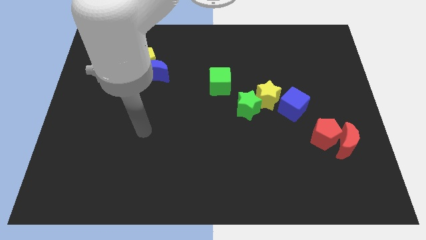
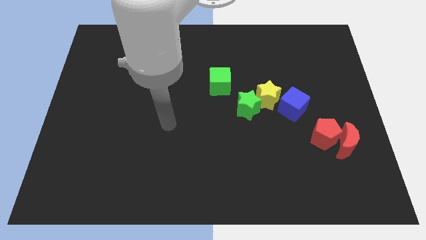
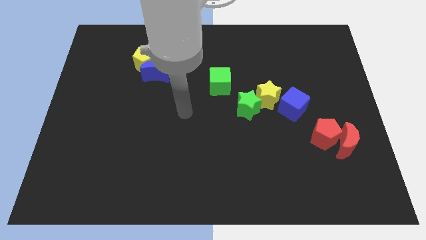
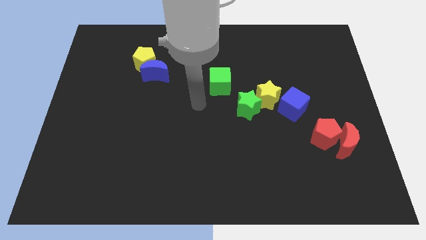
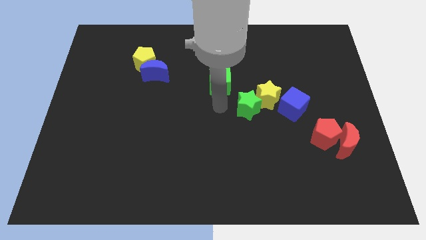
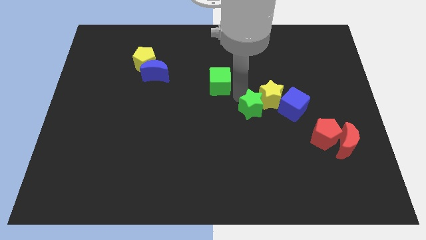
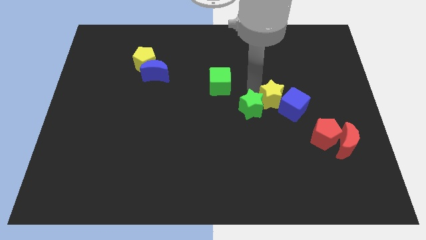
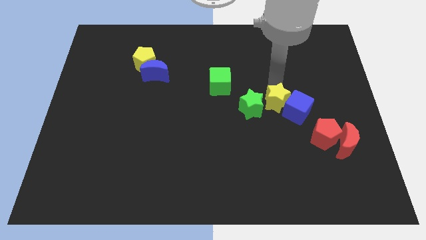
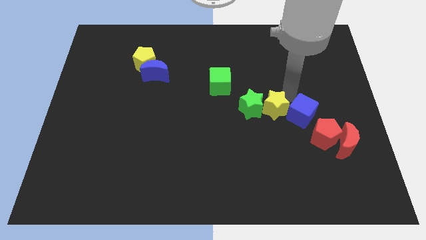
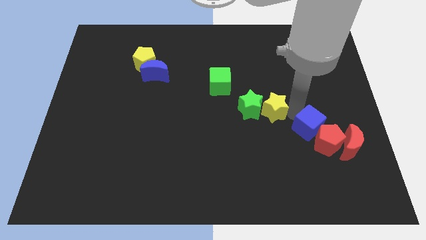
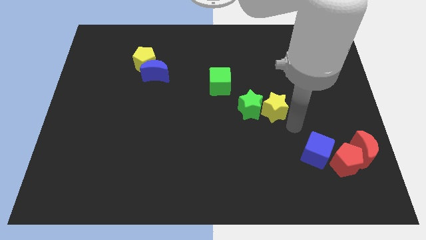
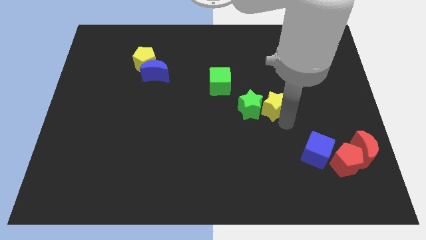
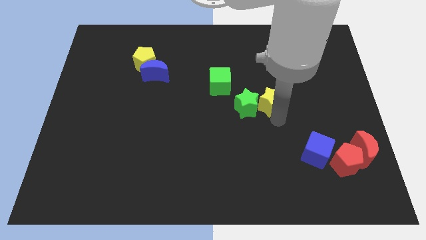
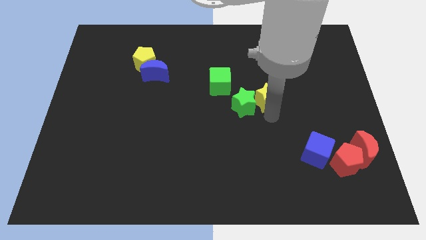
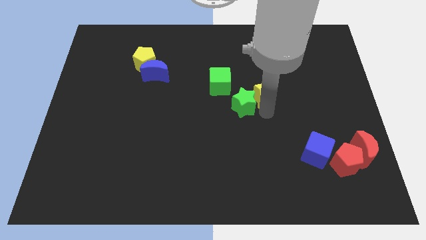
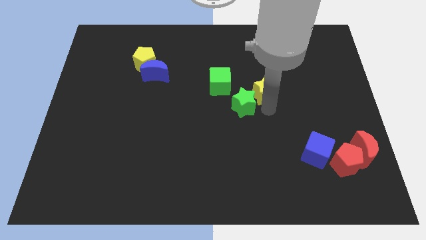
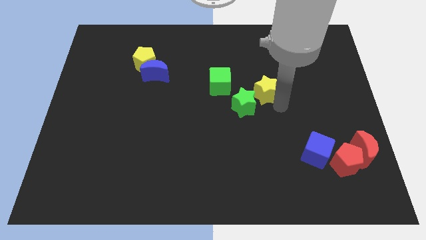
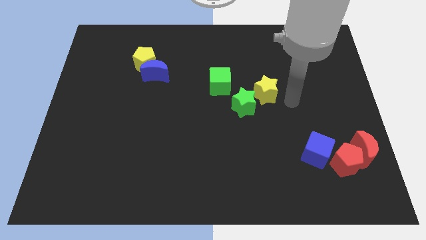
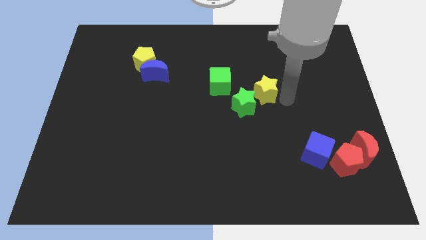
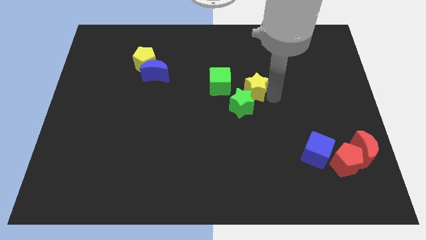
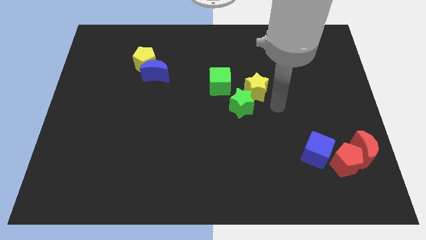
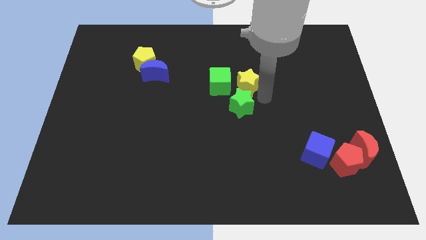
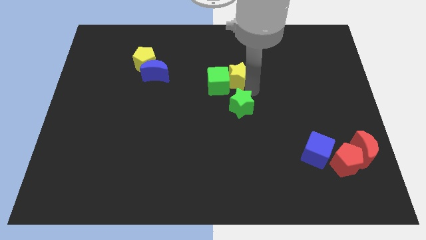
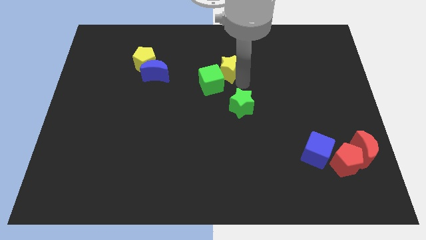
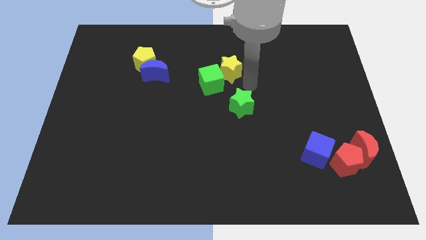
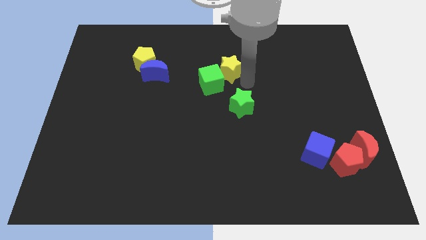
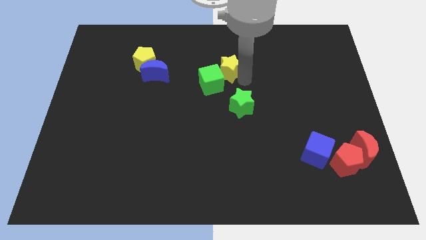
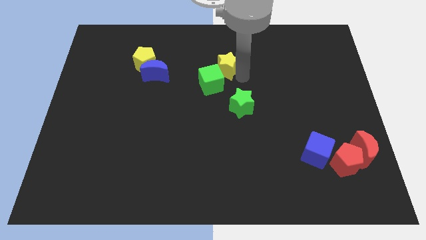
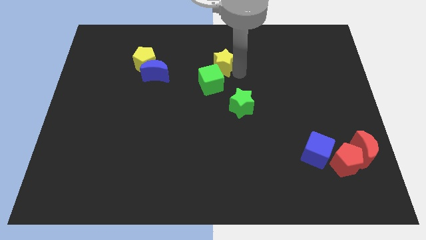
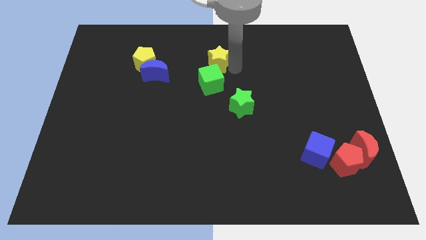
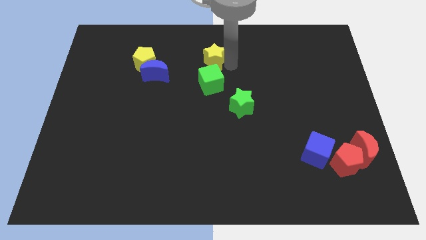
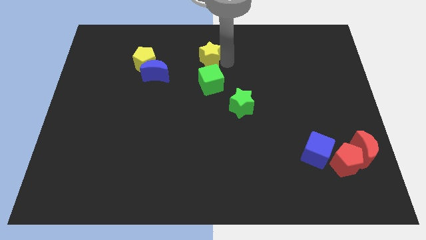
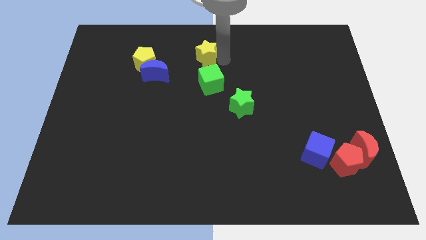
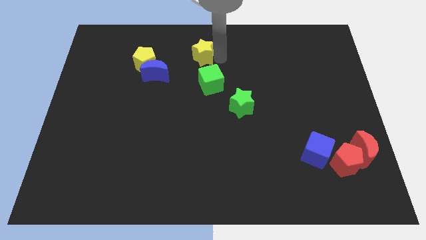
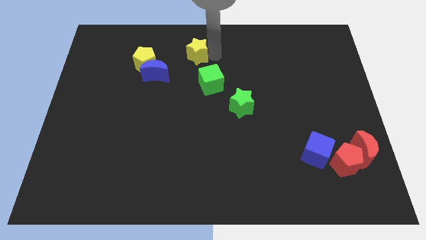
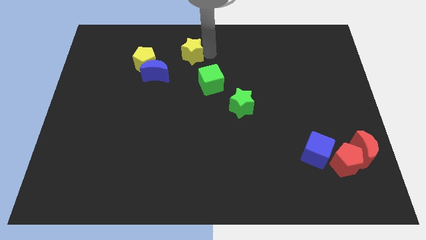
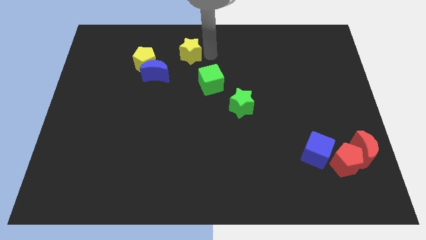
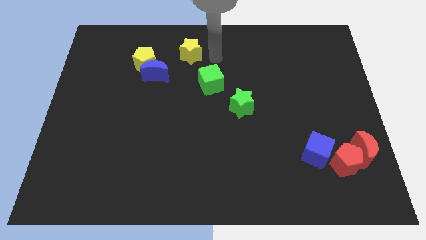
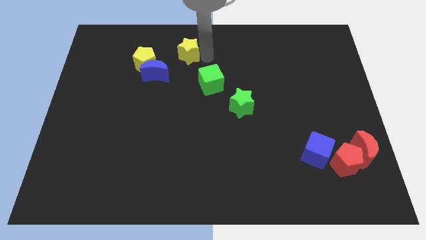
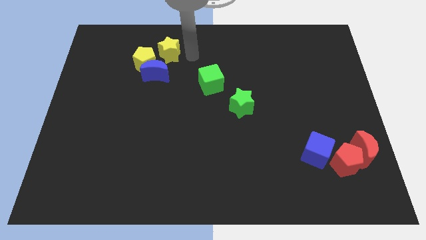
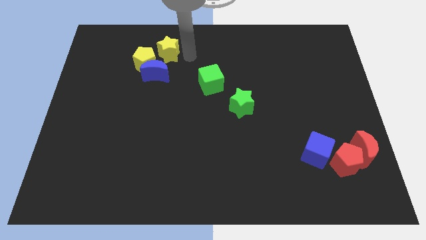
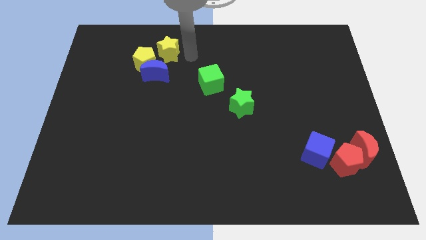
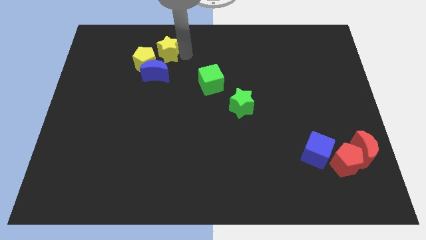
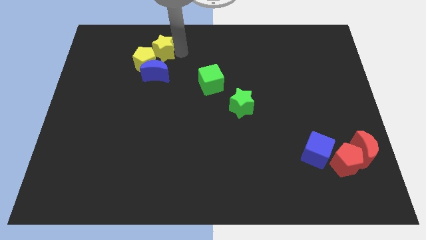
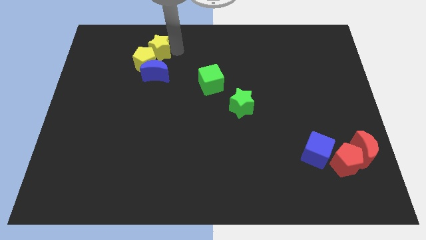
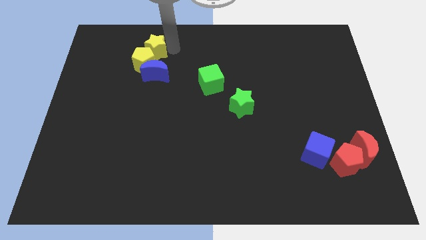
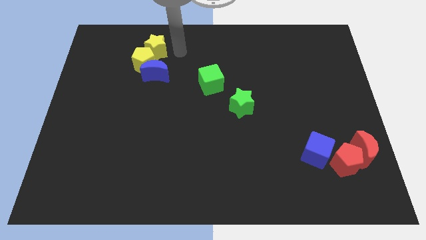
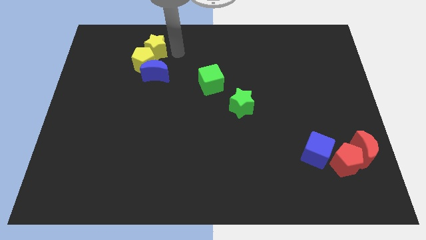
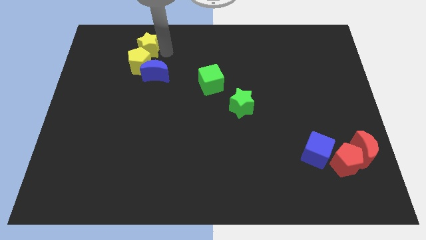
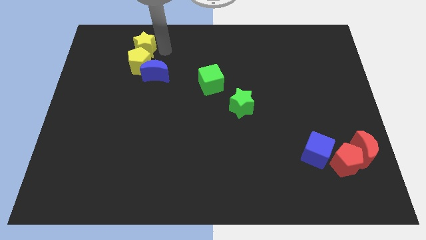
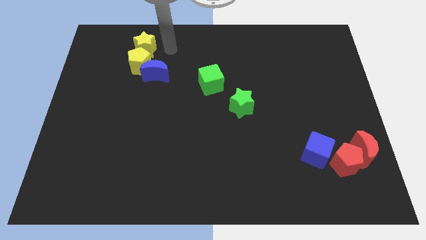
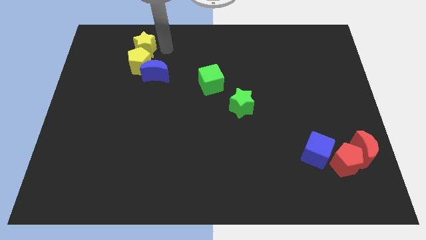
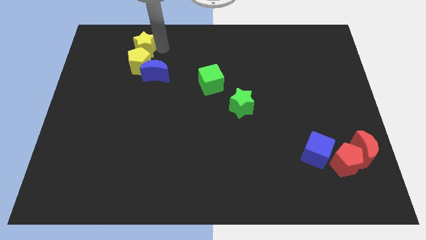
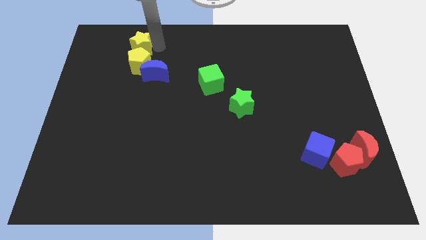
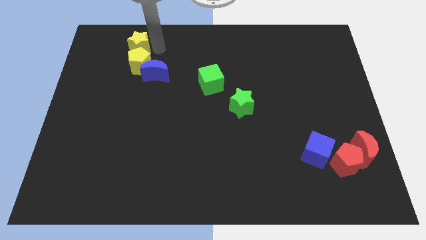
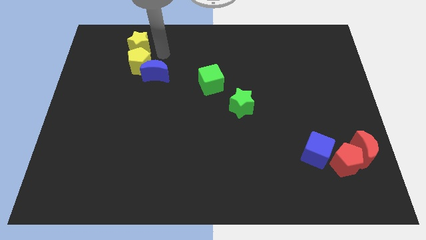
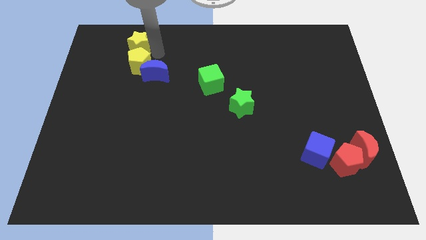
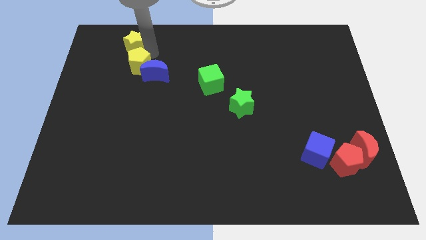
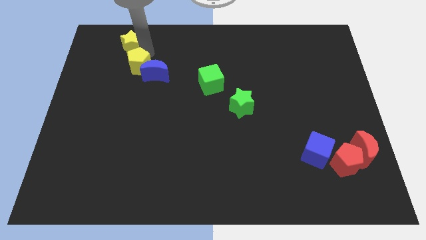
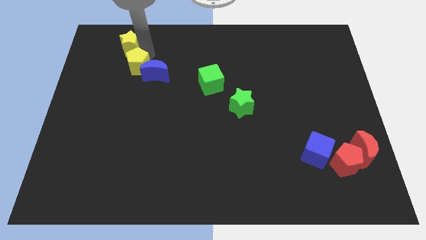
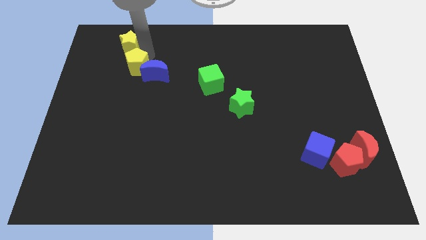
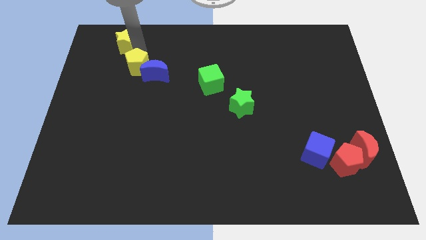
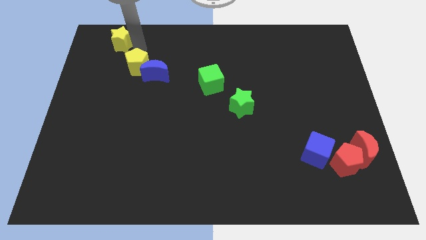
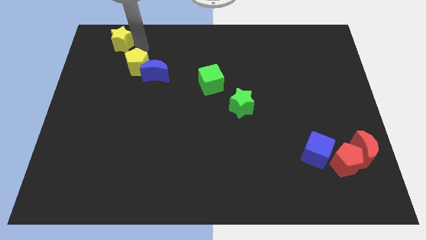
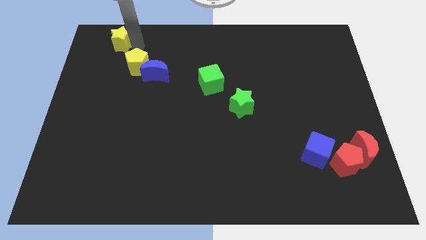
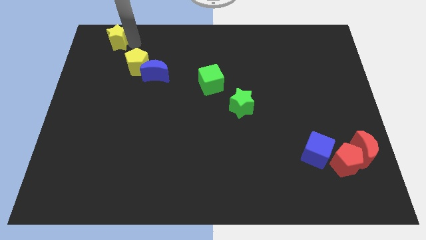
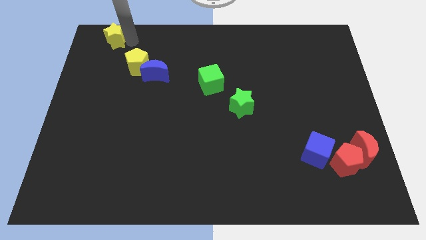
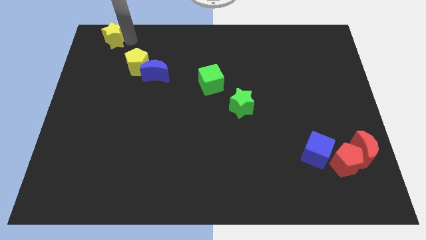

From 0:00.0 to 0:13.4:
put the yellow star to the top left of the board
